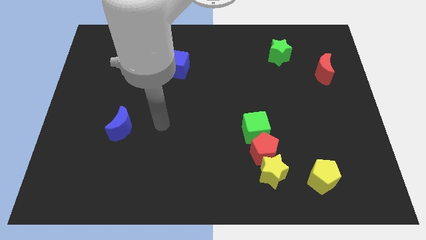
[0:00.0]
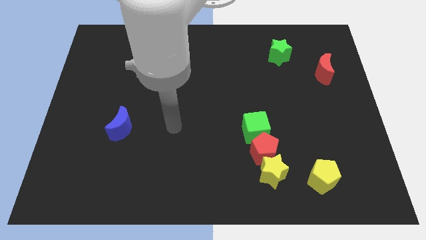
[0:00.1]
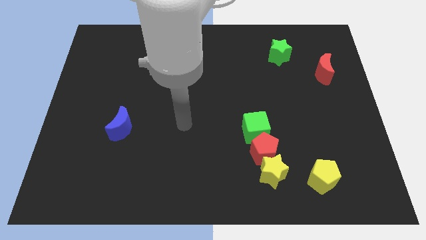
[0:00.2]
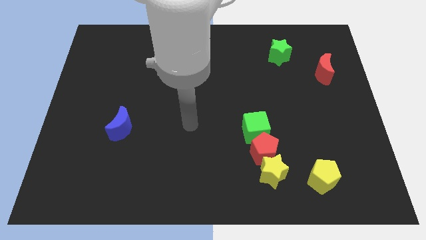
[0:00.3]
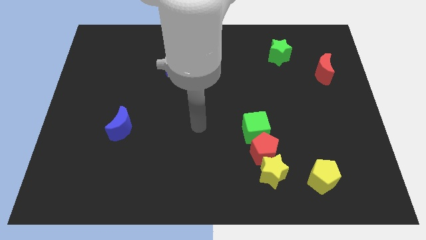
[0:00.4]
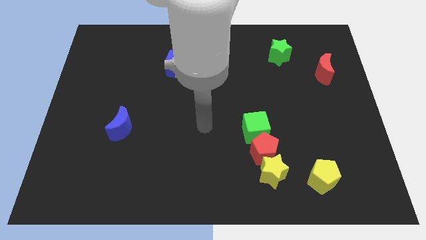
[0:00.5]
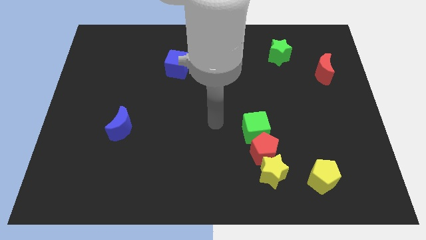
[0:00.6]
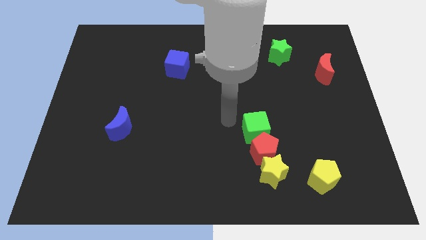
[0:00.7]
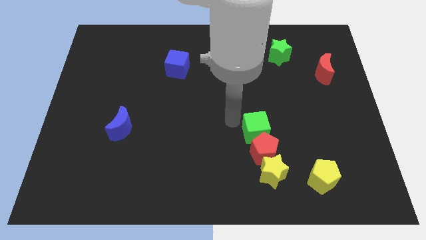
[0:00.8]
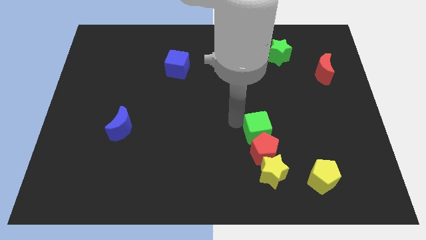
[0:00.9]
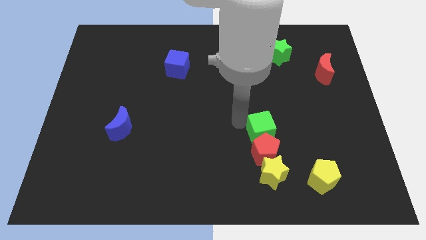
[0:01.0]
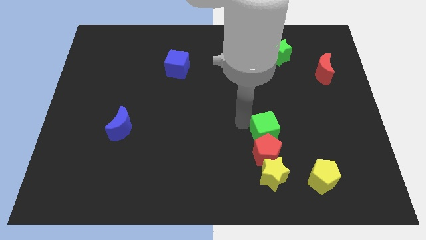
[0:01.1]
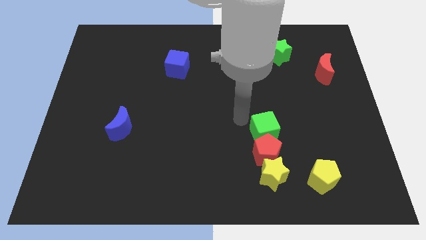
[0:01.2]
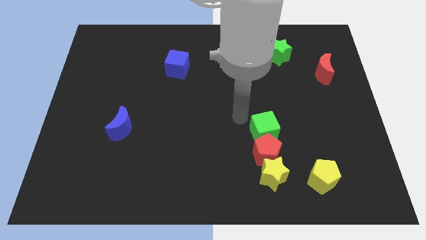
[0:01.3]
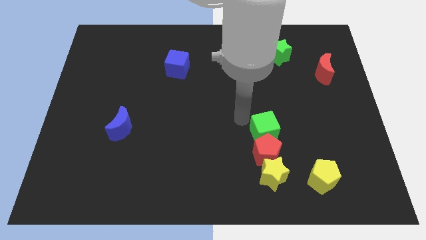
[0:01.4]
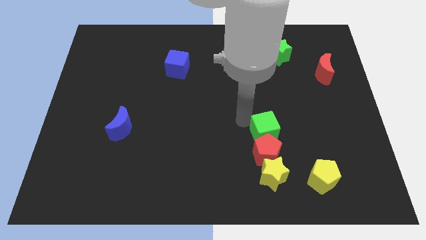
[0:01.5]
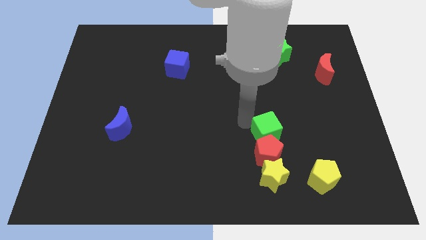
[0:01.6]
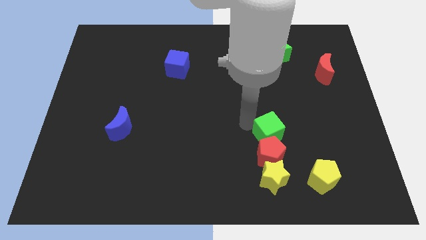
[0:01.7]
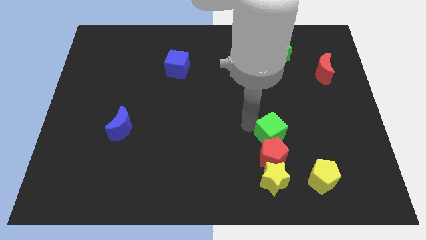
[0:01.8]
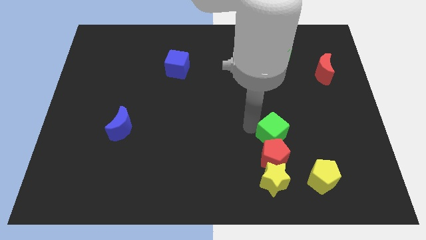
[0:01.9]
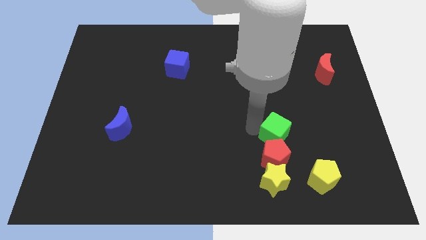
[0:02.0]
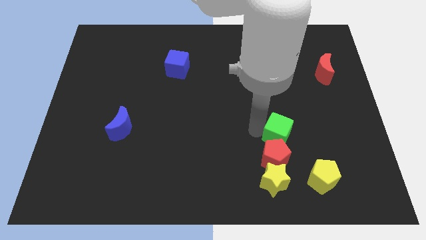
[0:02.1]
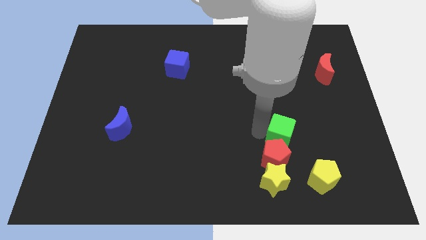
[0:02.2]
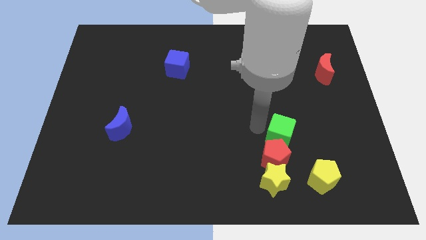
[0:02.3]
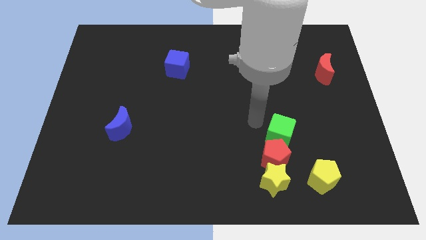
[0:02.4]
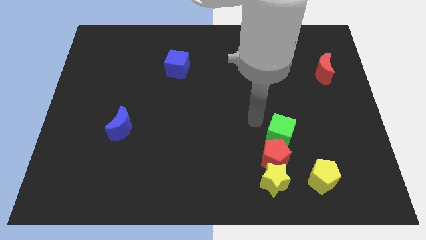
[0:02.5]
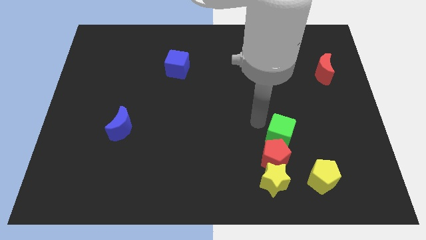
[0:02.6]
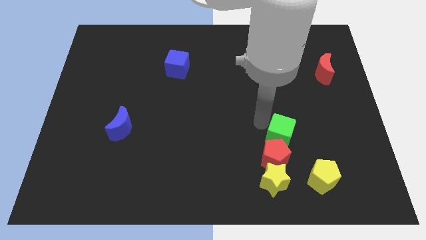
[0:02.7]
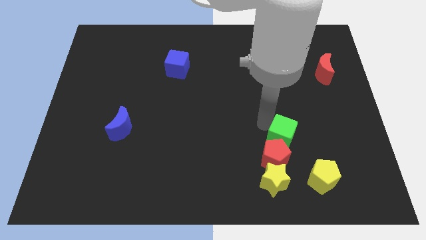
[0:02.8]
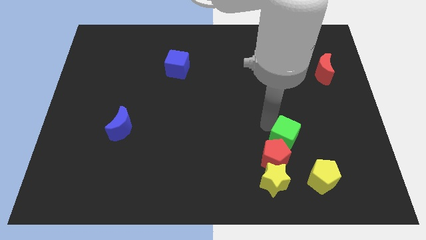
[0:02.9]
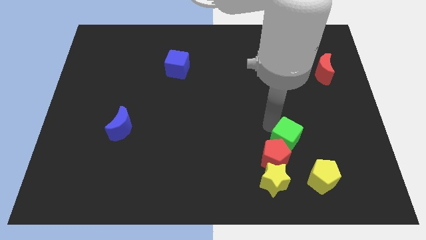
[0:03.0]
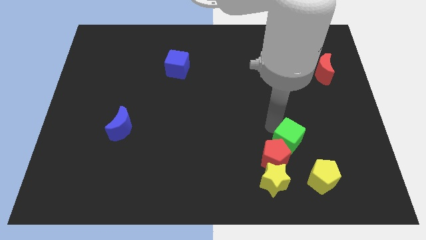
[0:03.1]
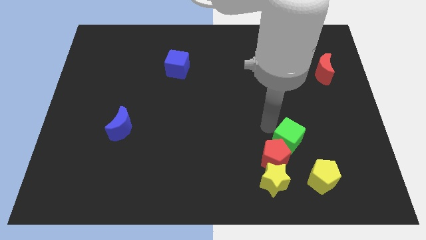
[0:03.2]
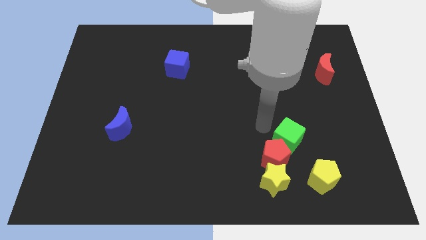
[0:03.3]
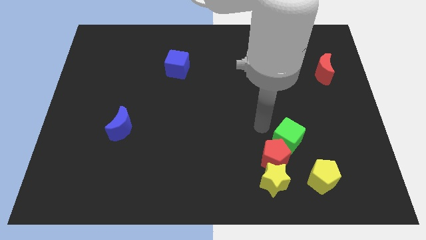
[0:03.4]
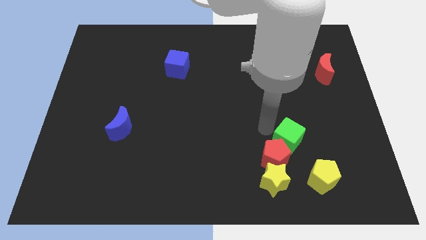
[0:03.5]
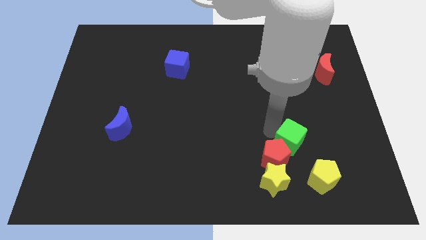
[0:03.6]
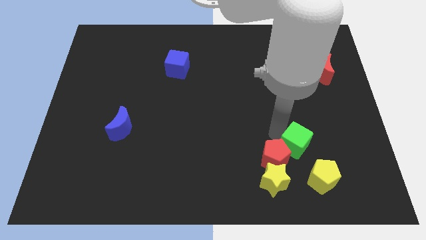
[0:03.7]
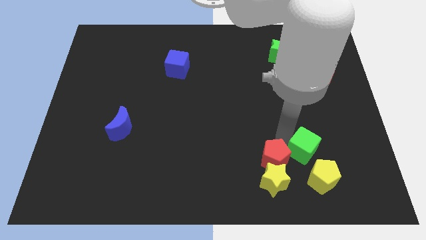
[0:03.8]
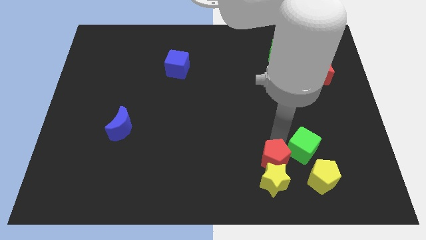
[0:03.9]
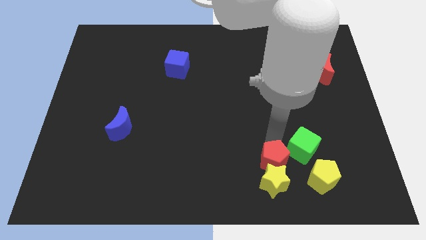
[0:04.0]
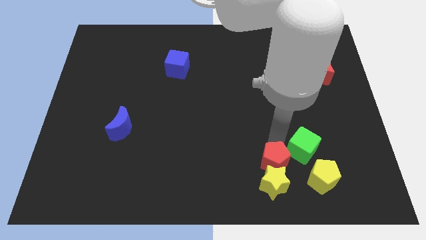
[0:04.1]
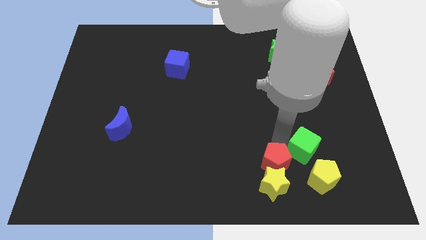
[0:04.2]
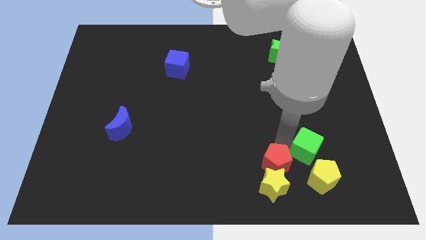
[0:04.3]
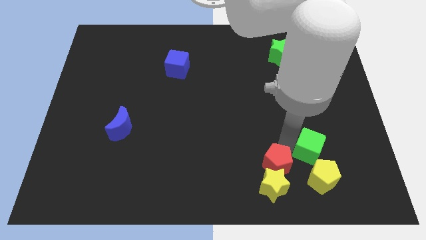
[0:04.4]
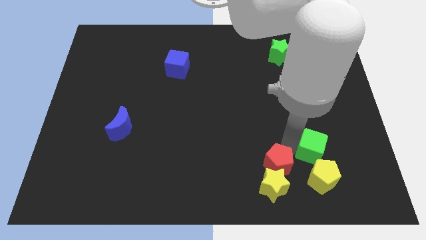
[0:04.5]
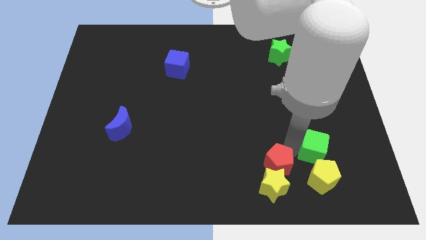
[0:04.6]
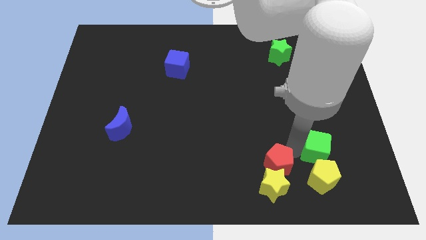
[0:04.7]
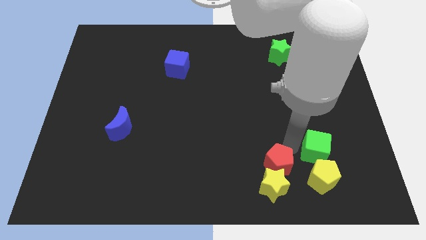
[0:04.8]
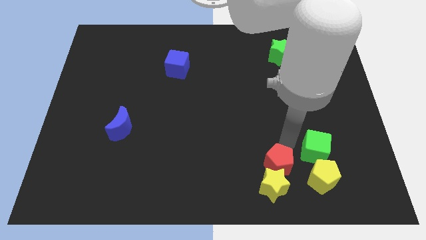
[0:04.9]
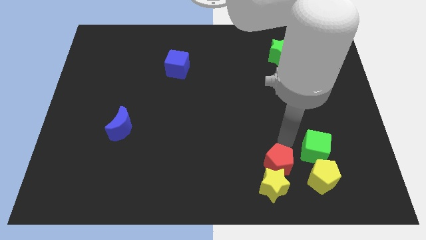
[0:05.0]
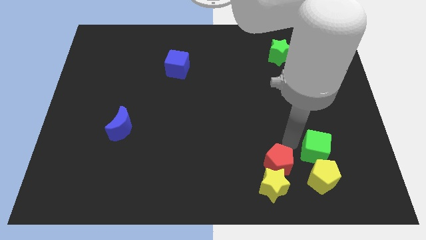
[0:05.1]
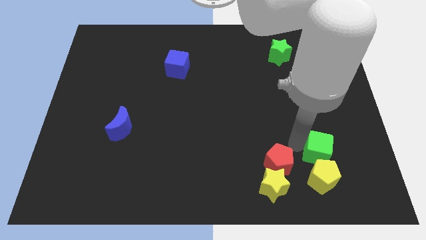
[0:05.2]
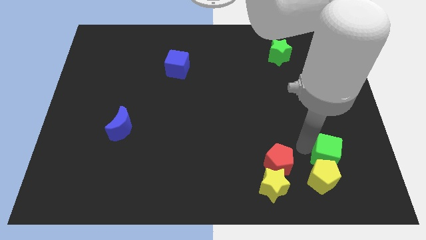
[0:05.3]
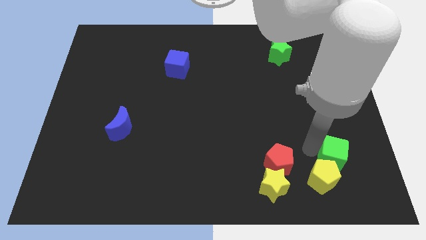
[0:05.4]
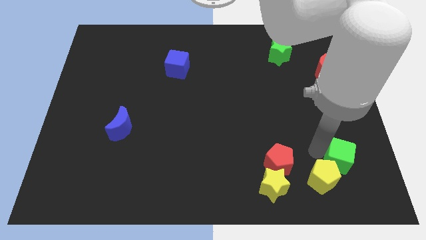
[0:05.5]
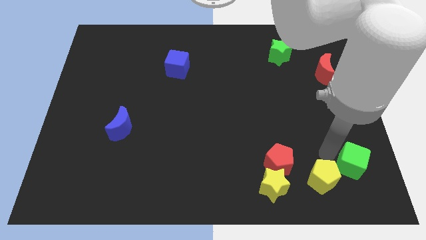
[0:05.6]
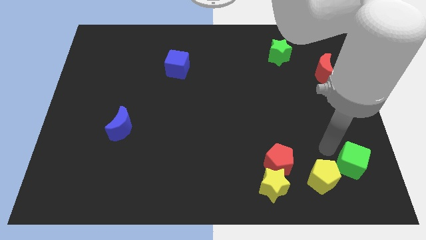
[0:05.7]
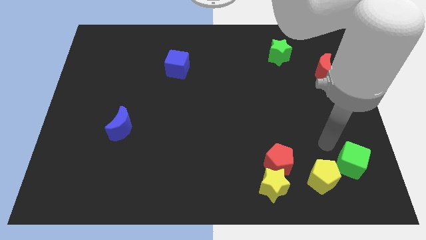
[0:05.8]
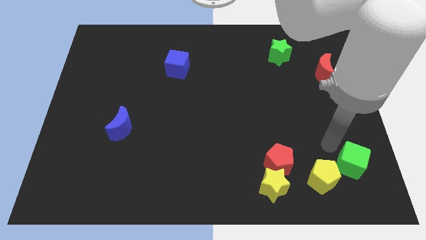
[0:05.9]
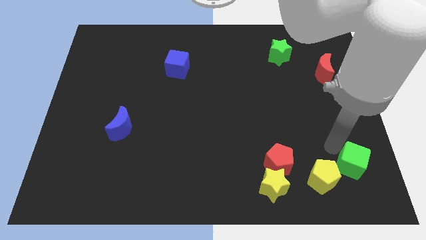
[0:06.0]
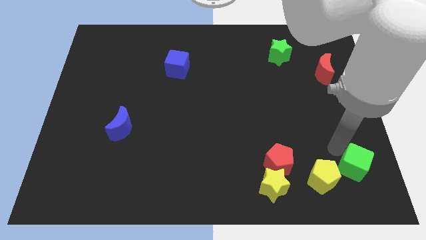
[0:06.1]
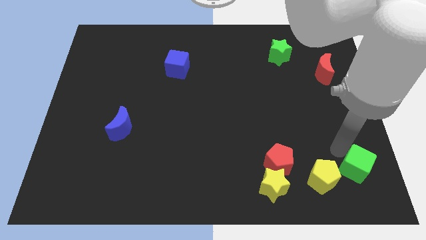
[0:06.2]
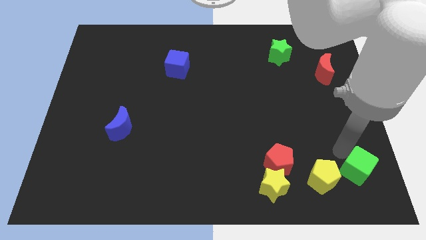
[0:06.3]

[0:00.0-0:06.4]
push the green cube to the lower right corner
